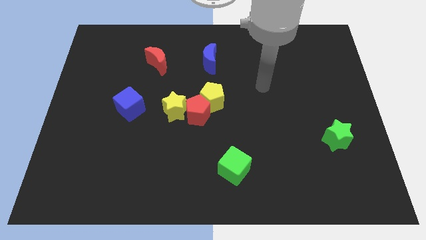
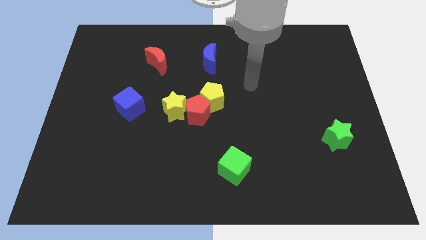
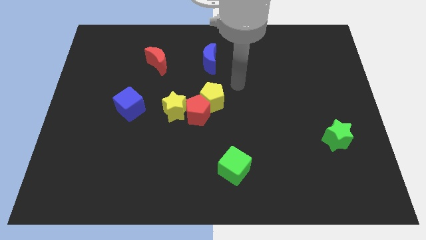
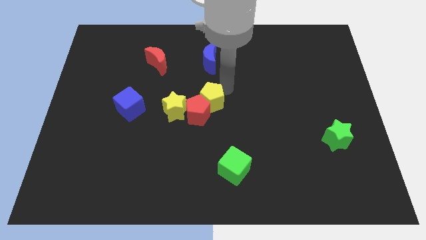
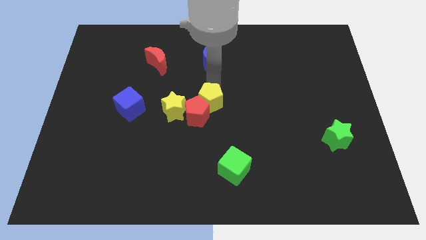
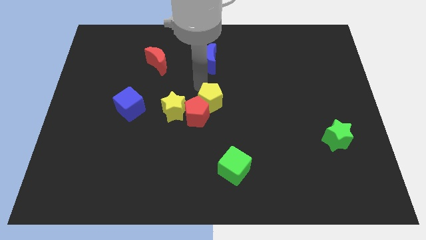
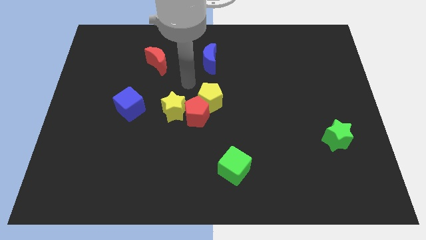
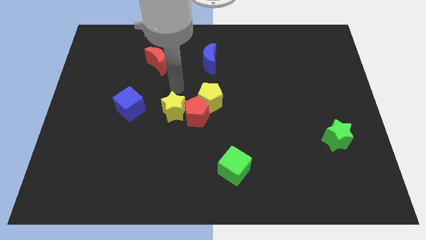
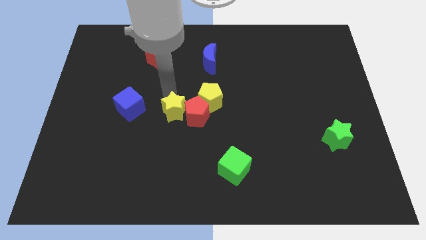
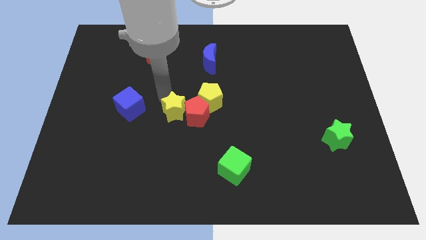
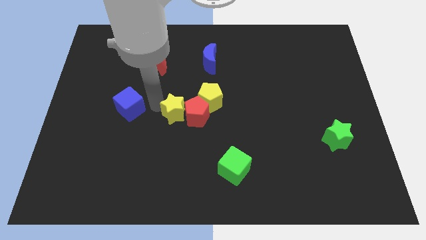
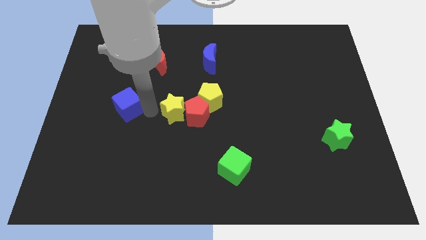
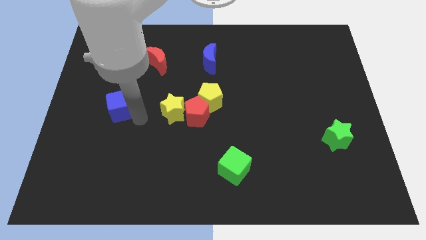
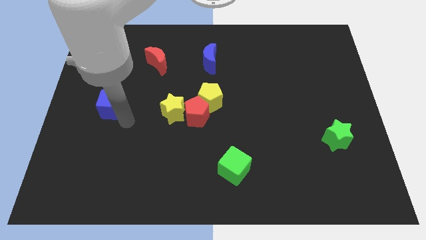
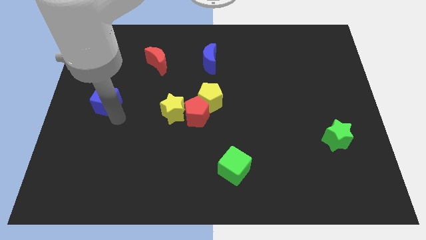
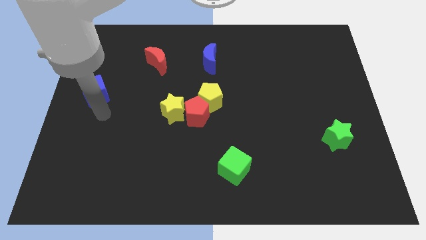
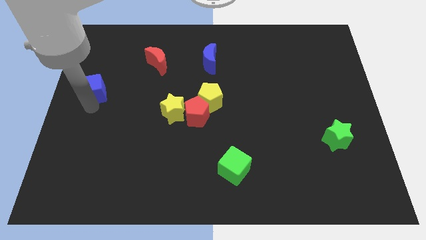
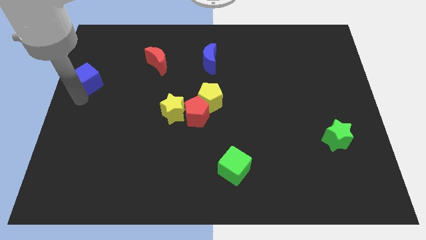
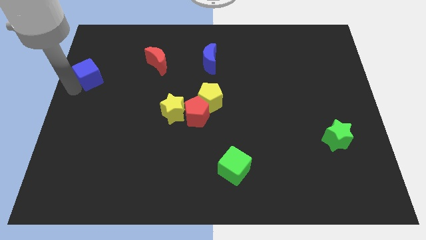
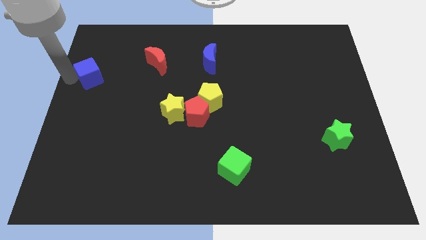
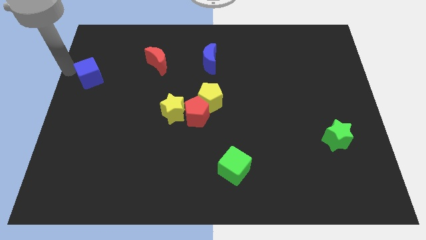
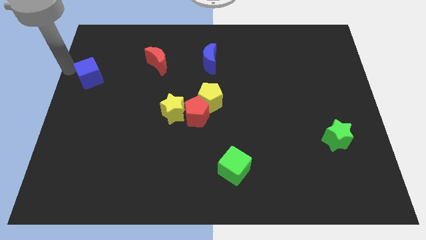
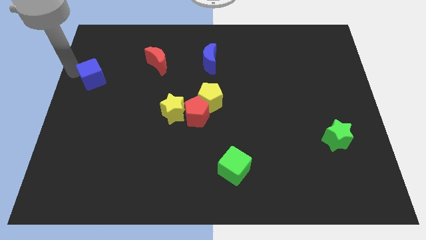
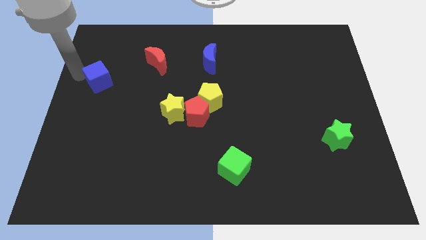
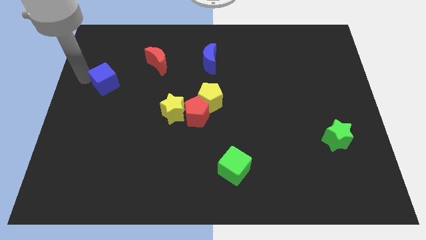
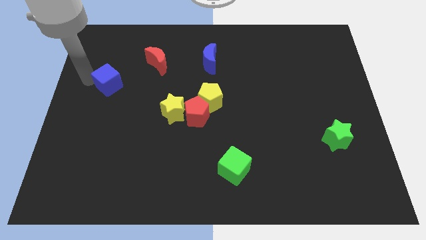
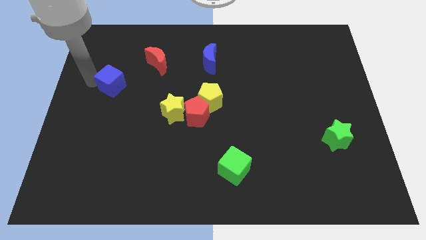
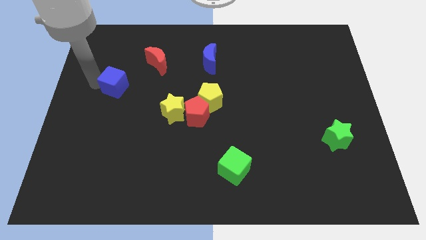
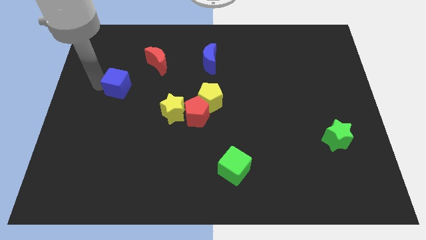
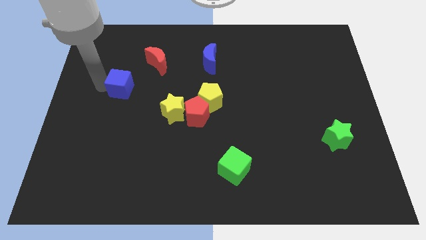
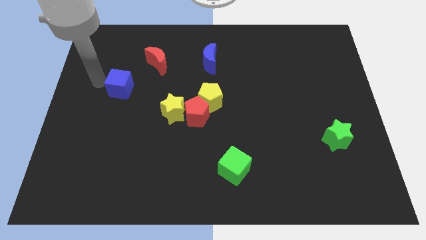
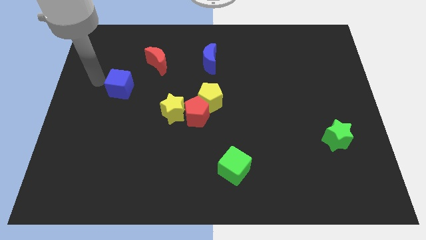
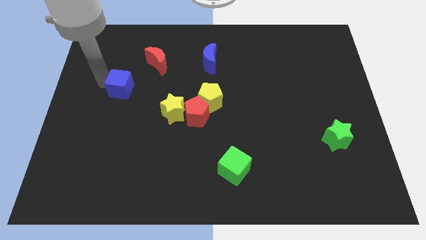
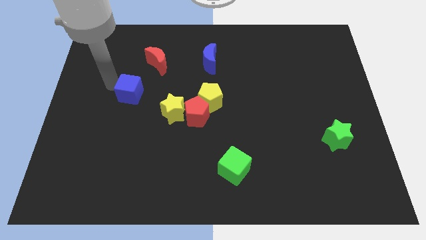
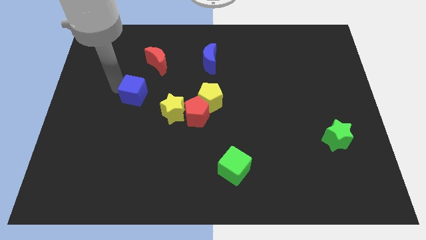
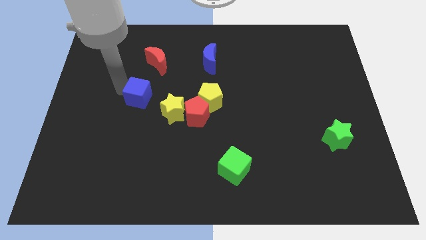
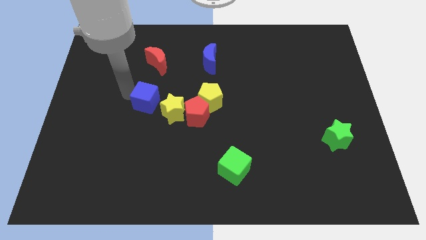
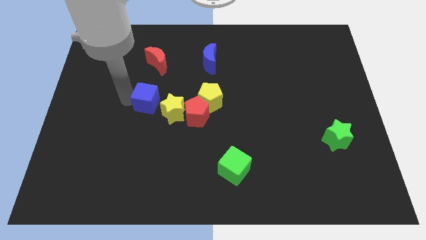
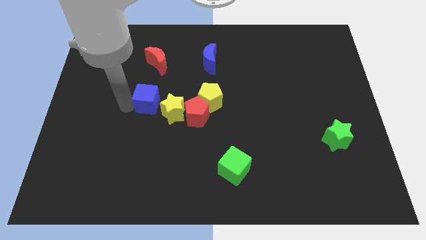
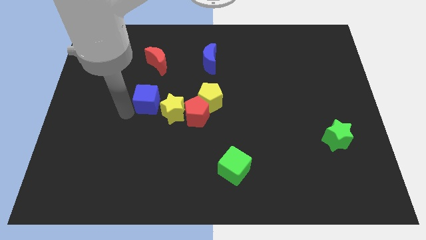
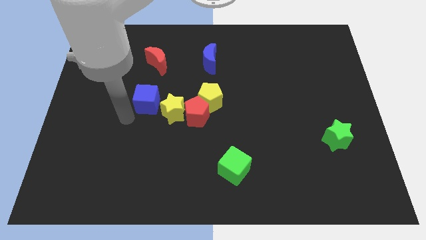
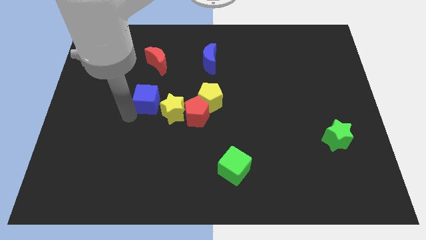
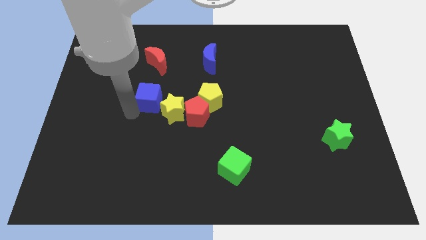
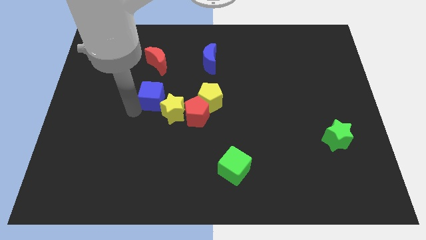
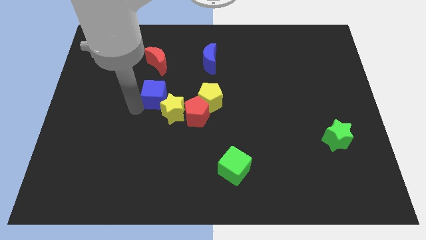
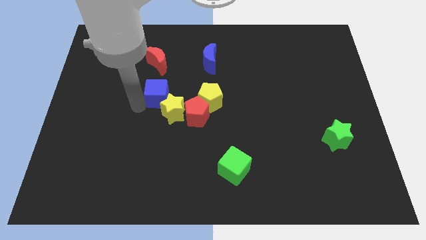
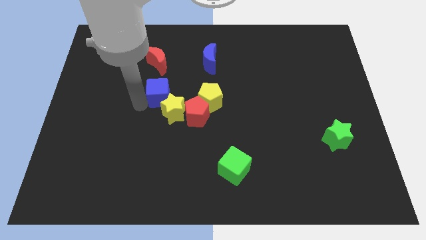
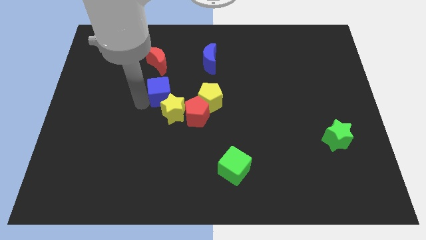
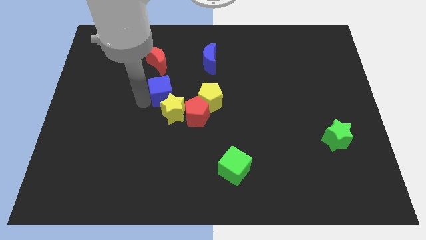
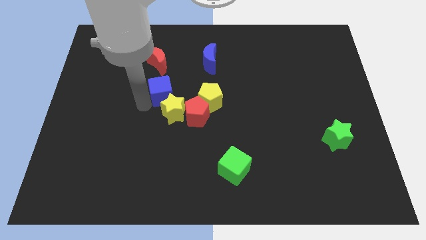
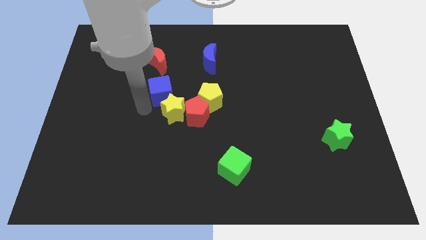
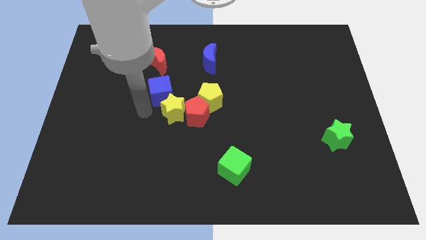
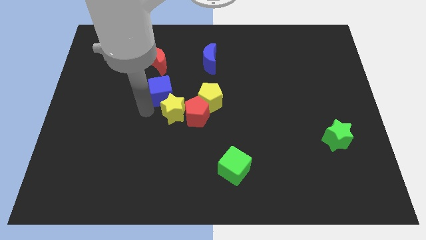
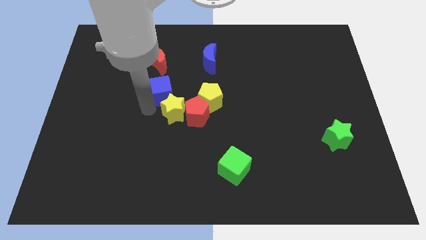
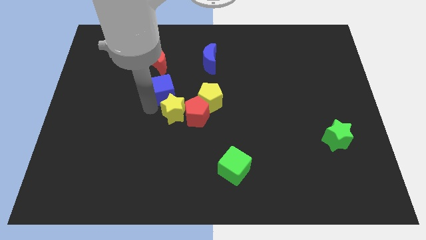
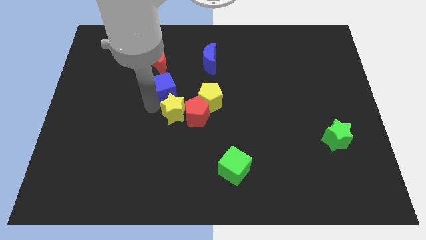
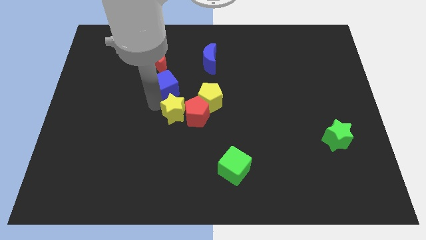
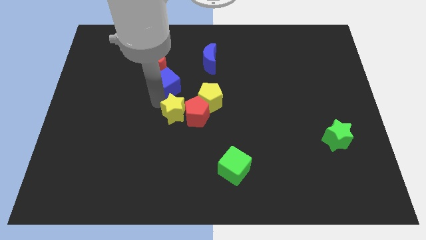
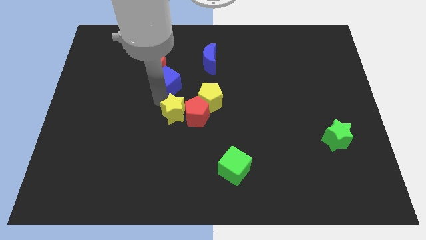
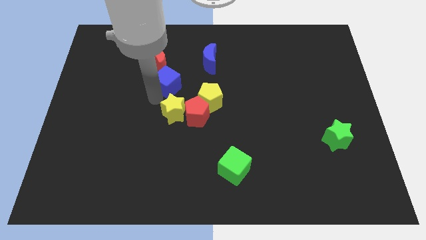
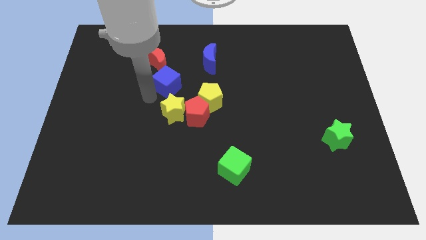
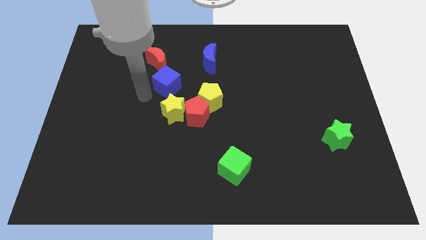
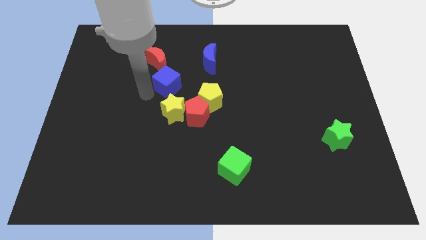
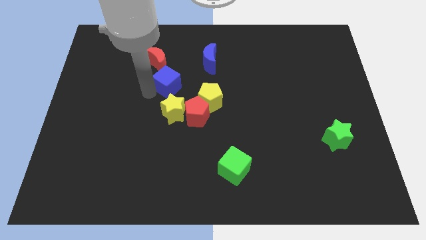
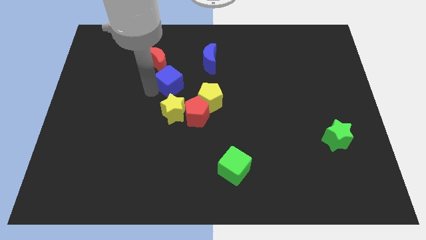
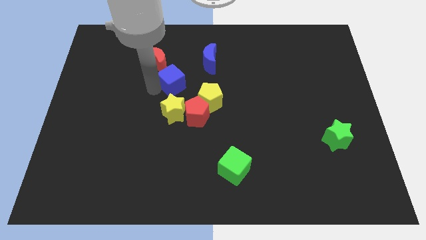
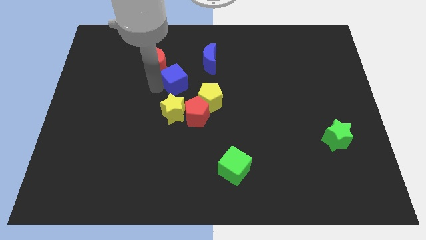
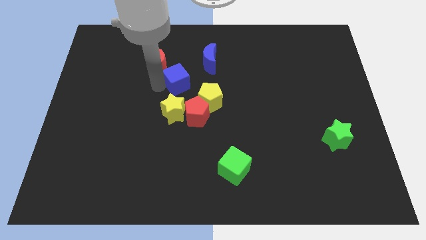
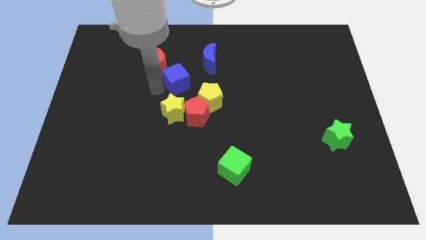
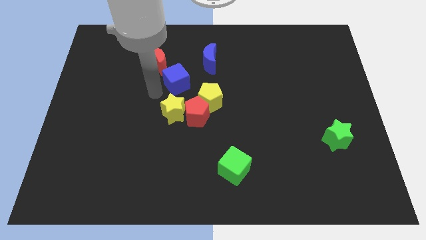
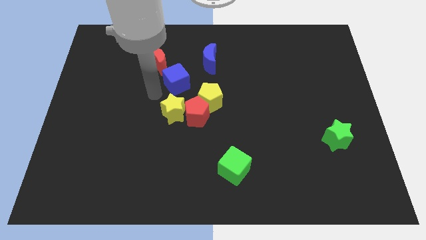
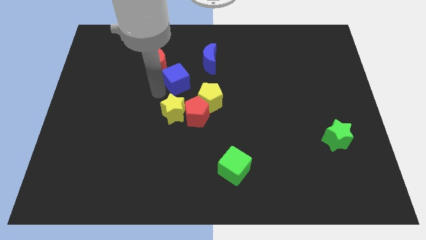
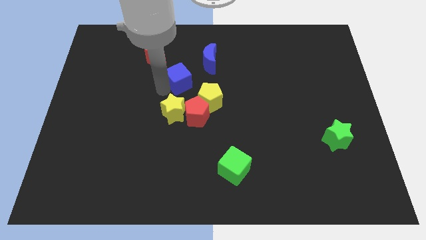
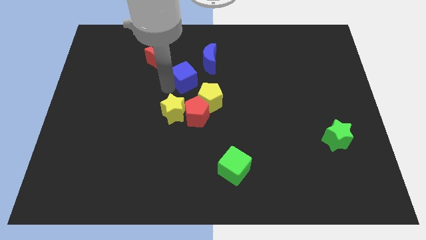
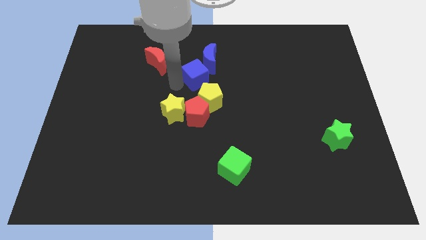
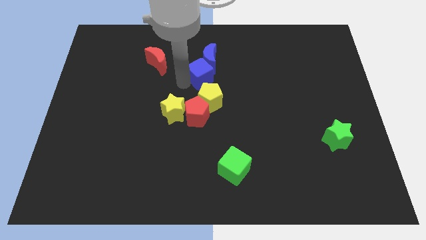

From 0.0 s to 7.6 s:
slide the blue cube towards the blue moon
